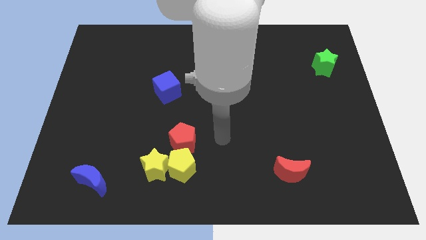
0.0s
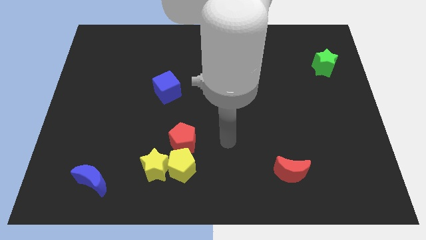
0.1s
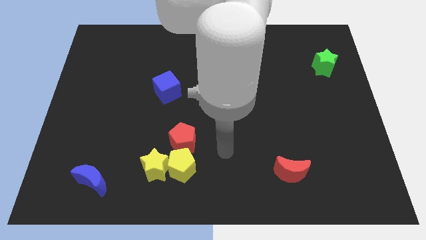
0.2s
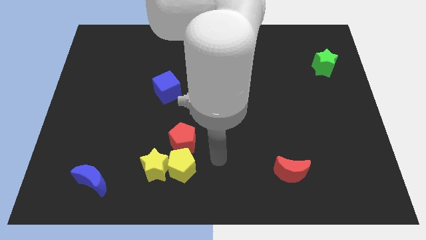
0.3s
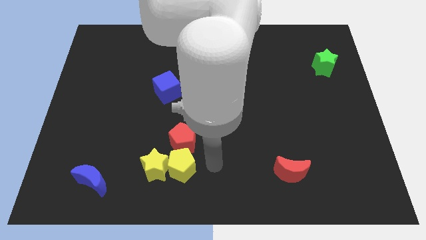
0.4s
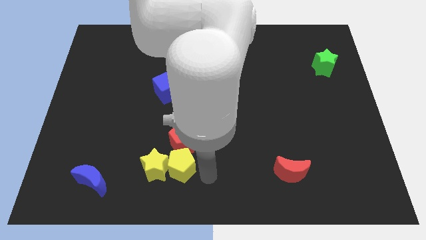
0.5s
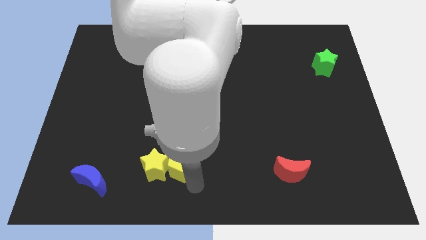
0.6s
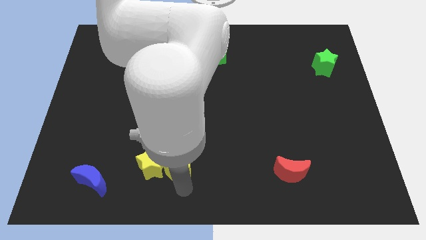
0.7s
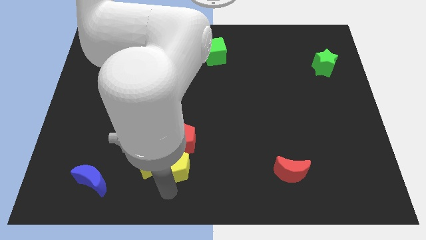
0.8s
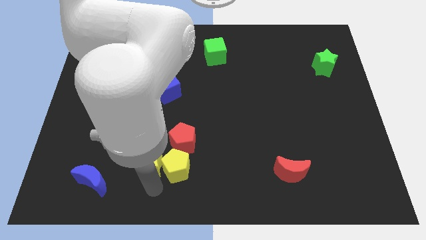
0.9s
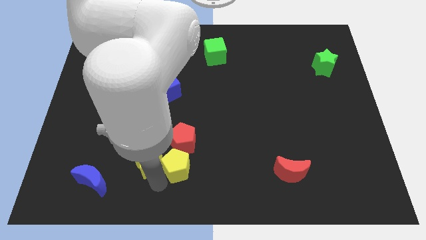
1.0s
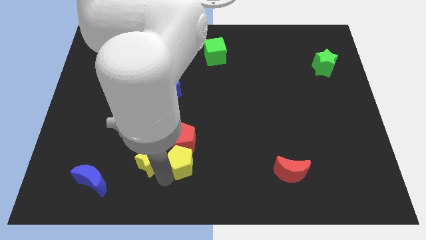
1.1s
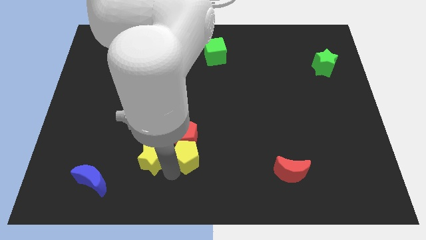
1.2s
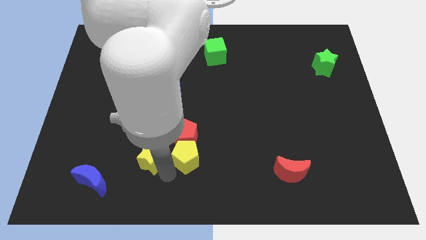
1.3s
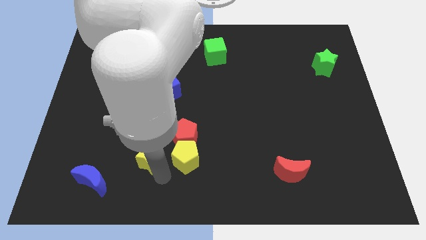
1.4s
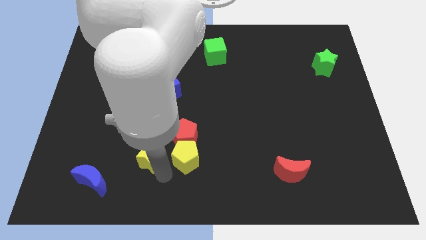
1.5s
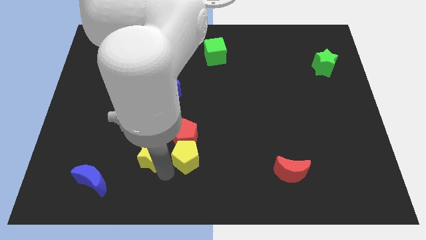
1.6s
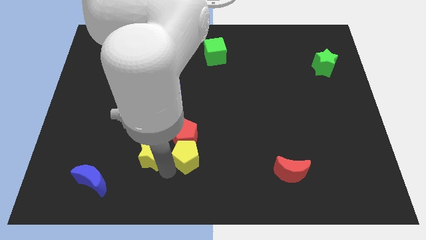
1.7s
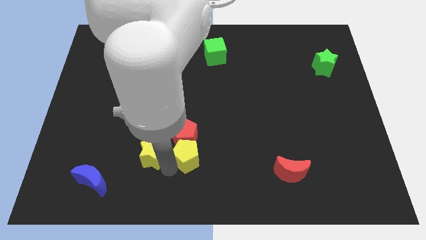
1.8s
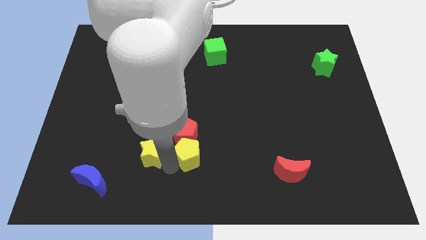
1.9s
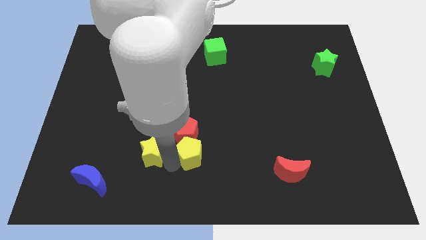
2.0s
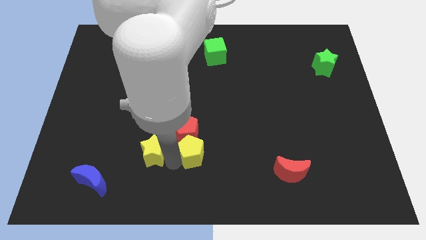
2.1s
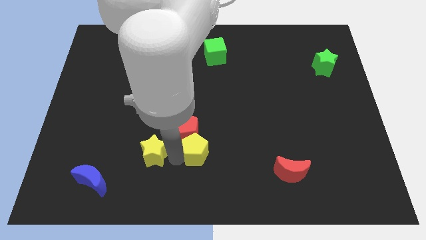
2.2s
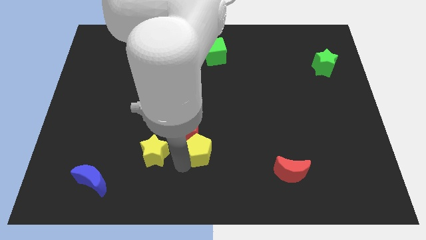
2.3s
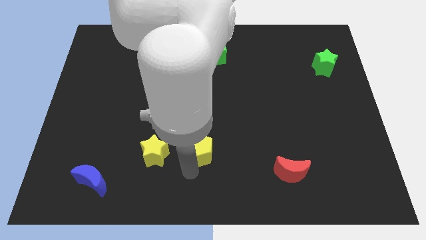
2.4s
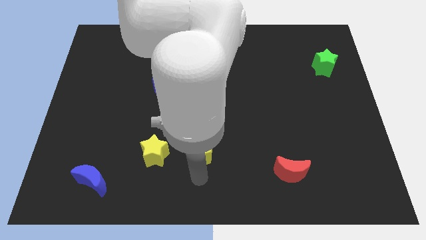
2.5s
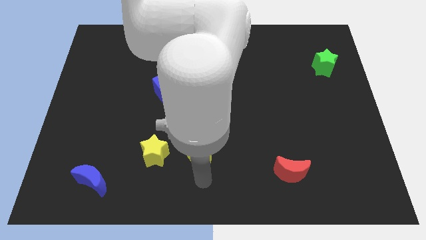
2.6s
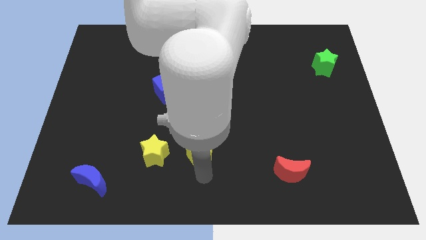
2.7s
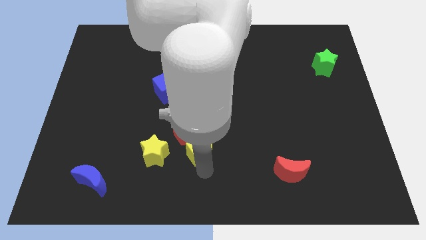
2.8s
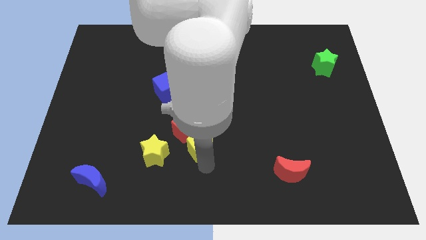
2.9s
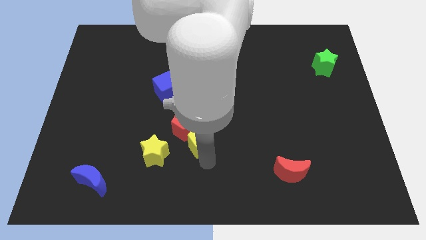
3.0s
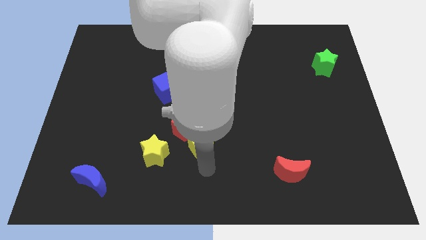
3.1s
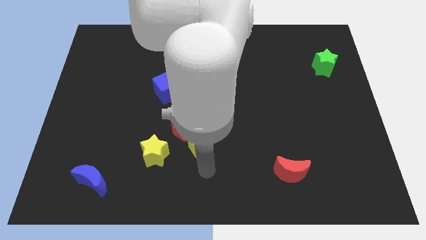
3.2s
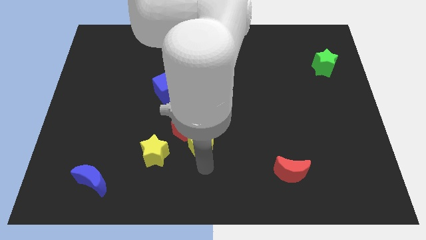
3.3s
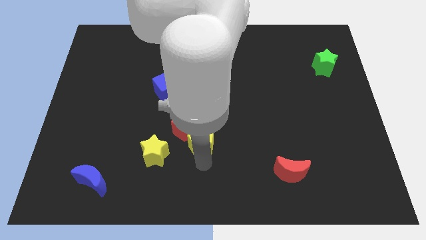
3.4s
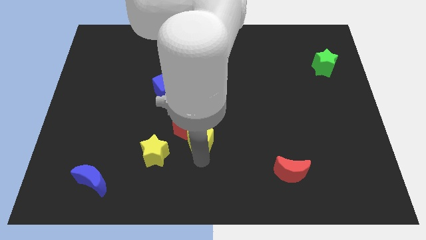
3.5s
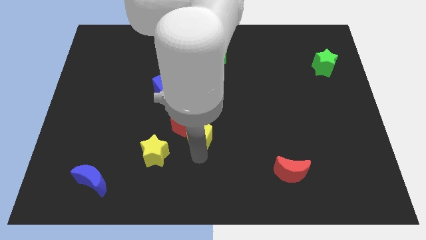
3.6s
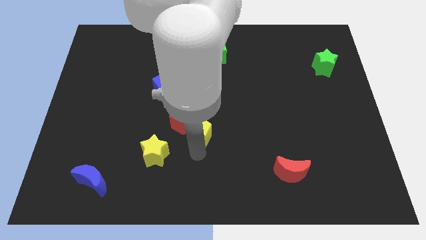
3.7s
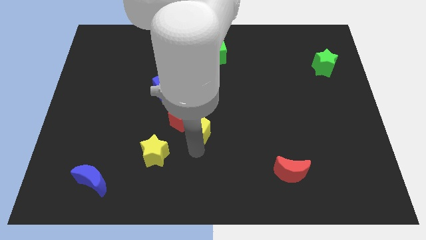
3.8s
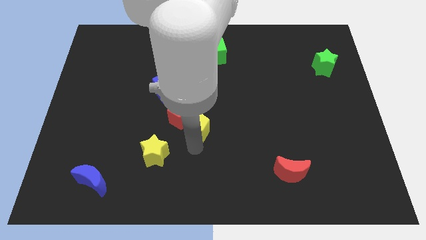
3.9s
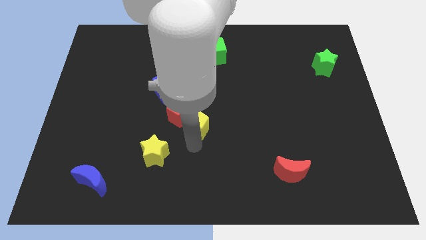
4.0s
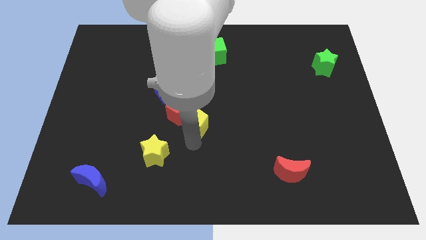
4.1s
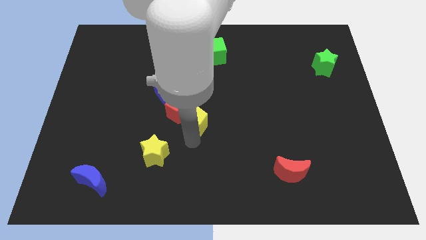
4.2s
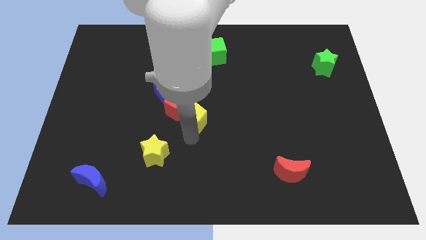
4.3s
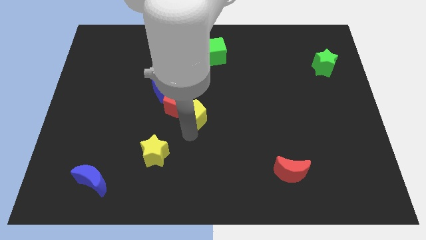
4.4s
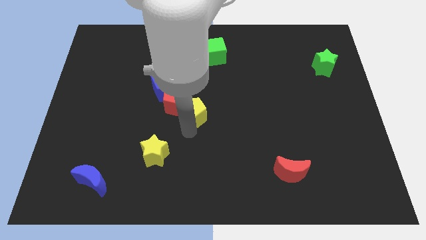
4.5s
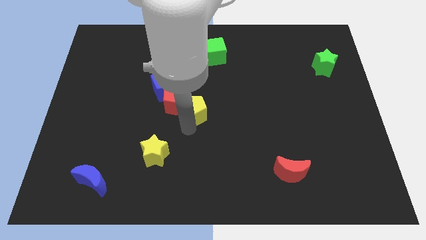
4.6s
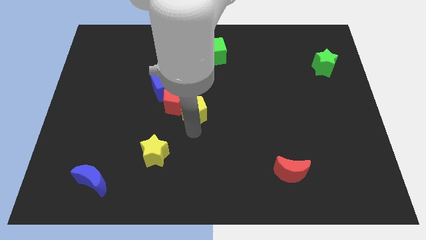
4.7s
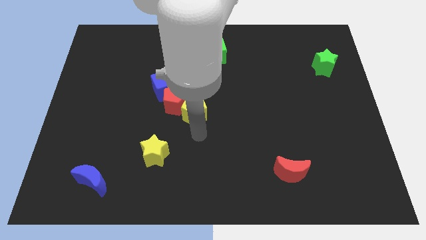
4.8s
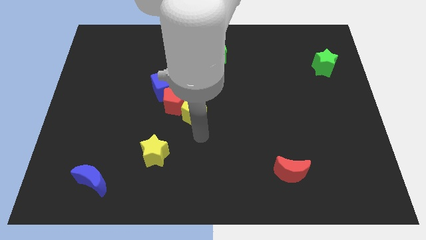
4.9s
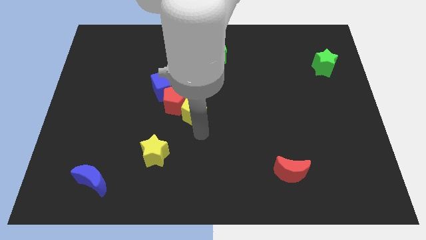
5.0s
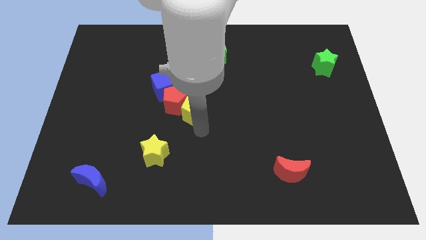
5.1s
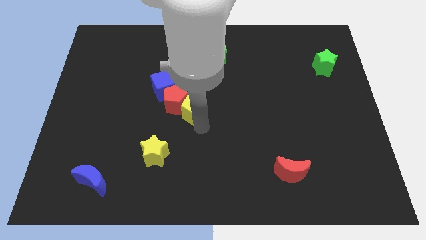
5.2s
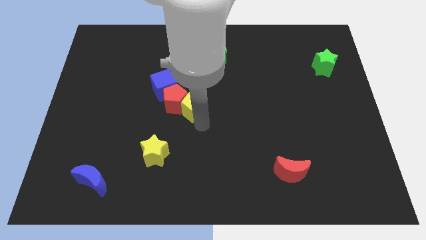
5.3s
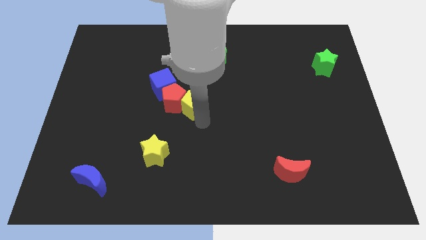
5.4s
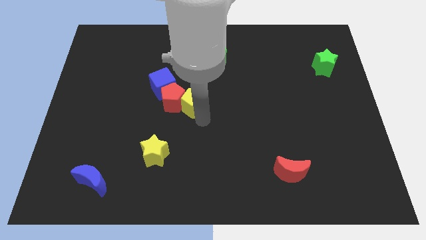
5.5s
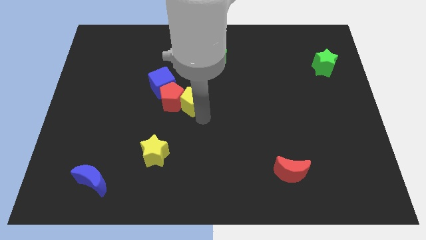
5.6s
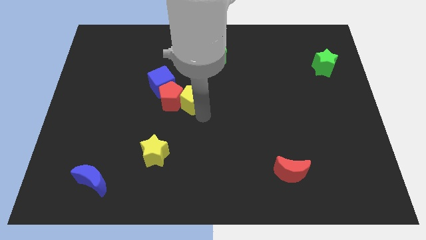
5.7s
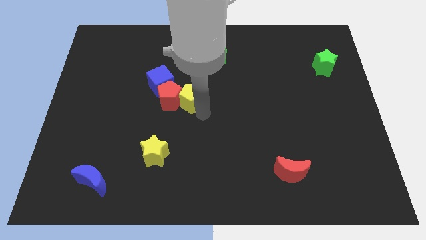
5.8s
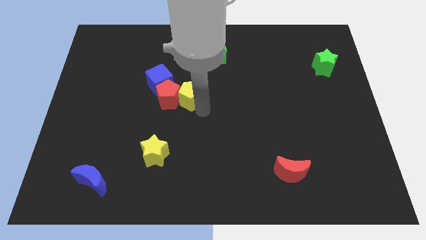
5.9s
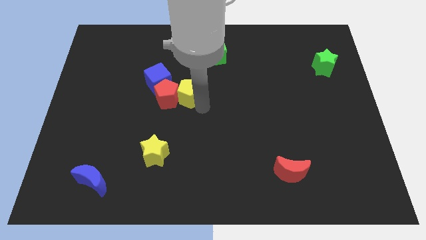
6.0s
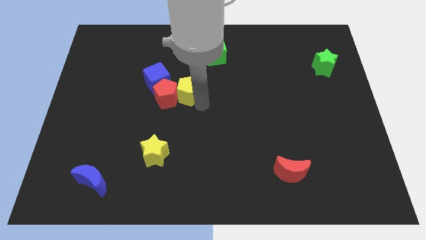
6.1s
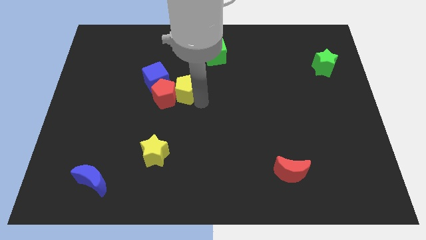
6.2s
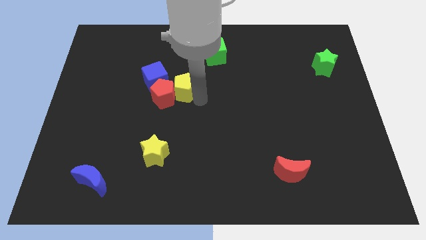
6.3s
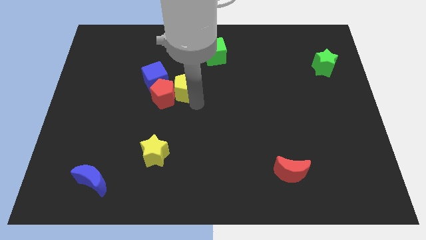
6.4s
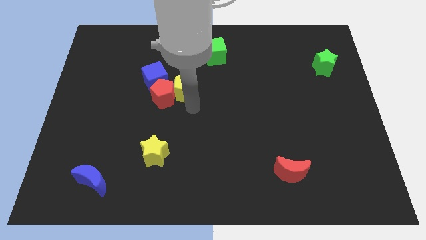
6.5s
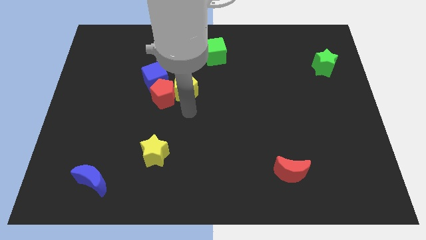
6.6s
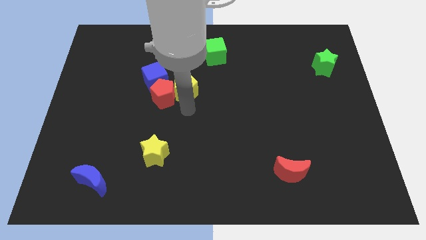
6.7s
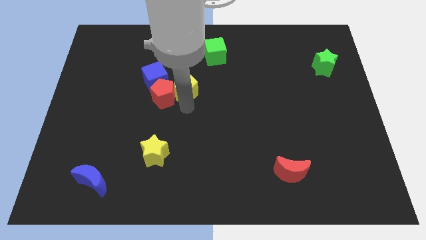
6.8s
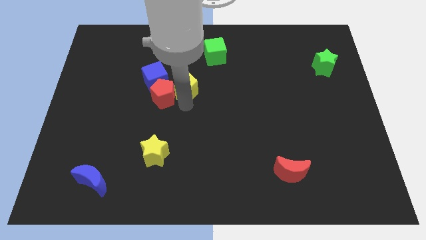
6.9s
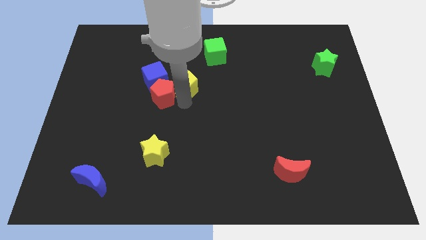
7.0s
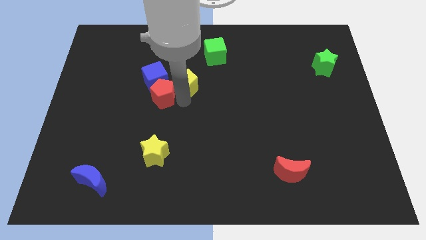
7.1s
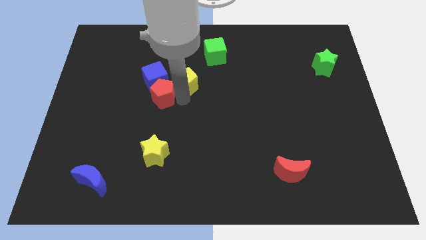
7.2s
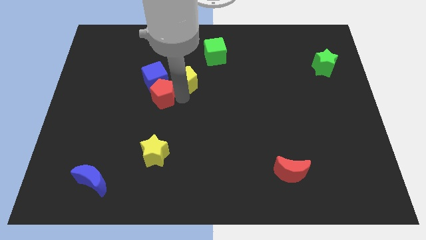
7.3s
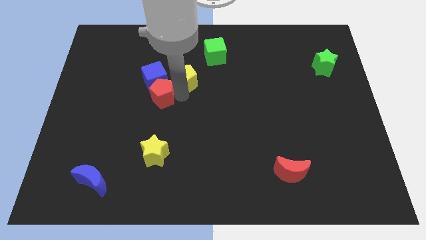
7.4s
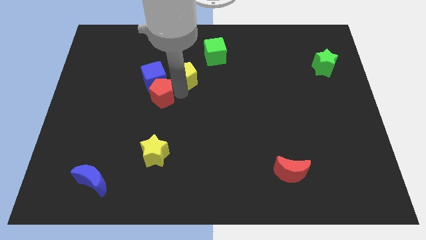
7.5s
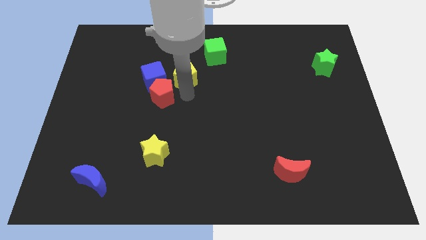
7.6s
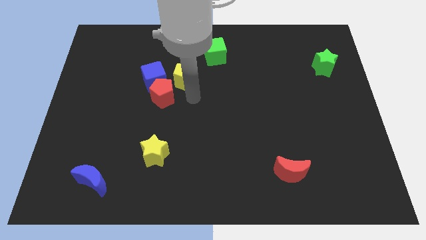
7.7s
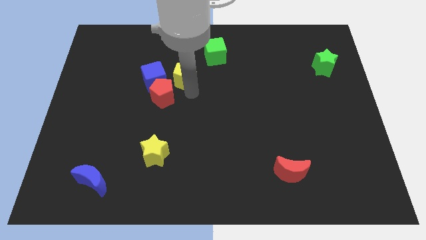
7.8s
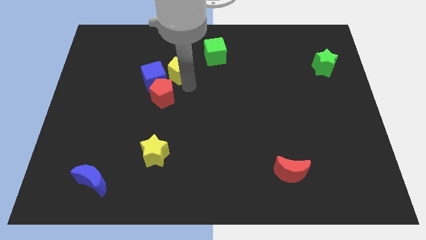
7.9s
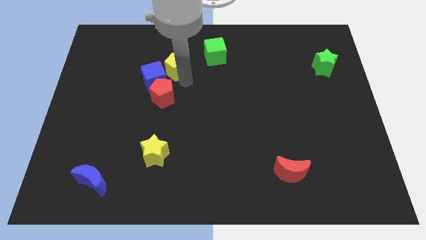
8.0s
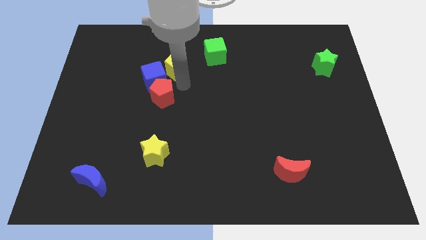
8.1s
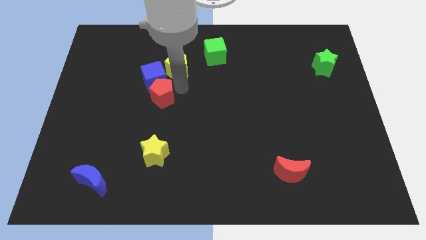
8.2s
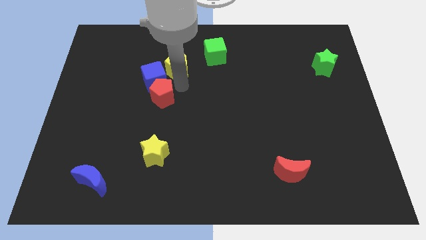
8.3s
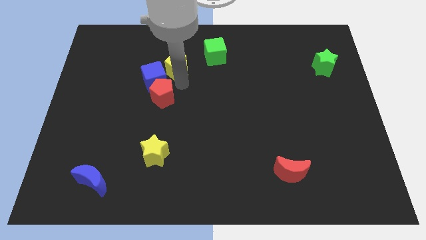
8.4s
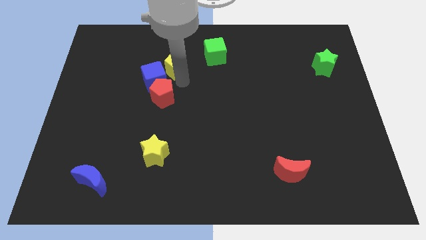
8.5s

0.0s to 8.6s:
push the yellow pentagon just left of the green cube
